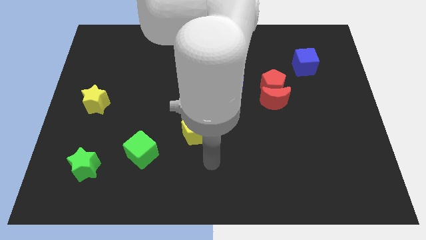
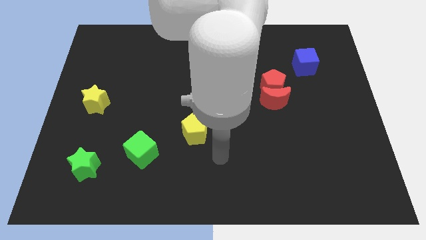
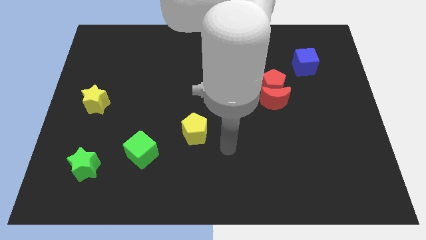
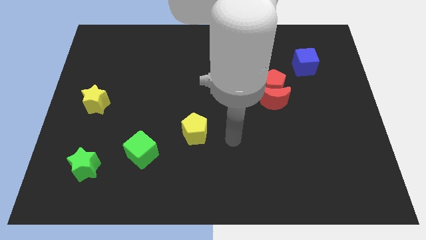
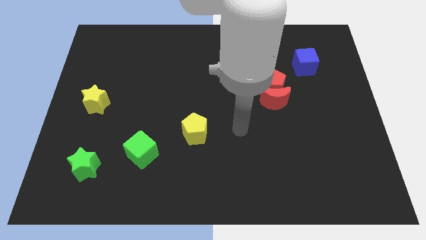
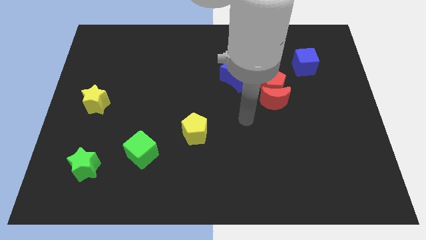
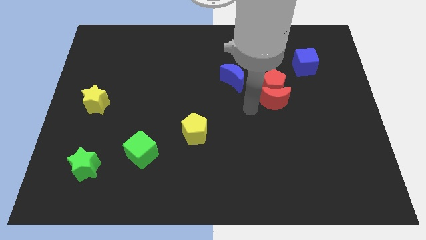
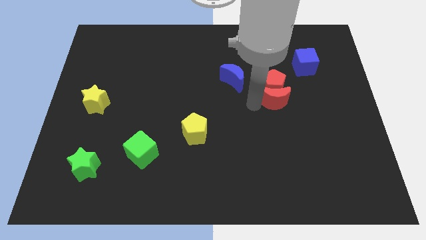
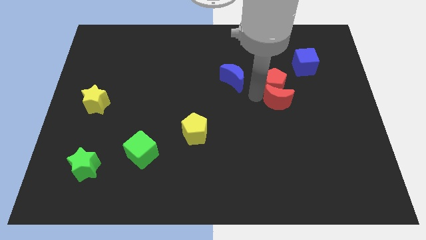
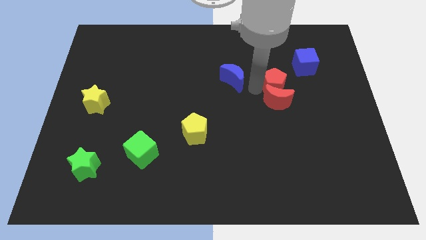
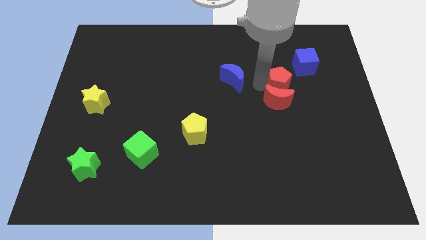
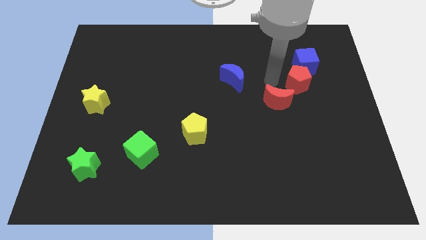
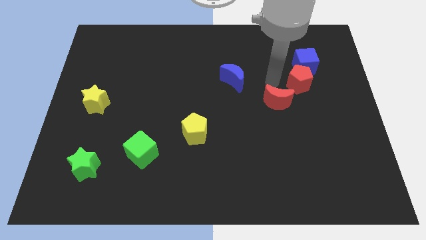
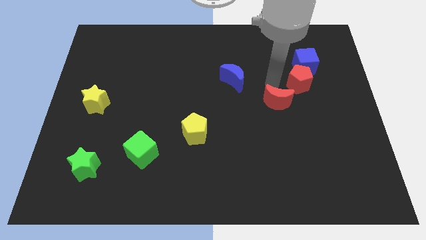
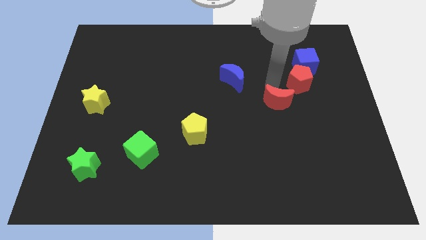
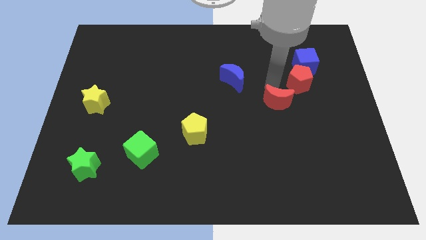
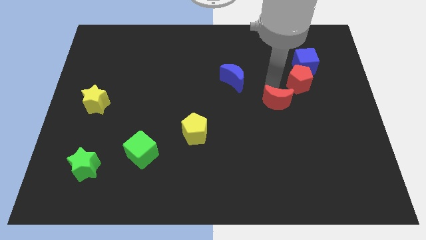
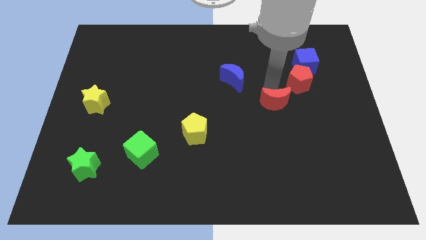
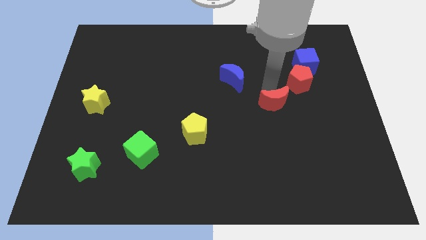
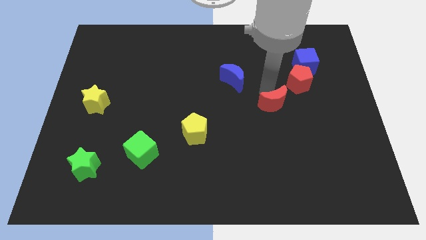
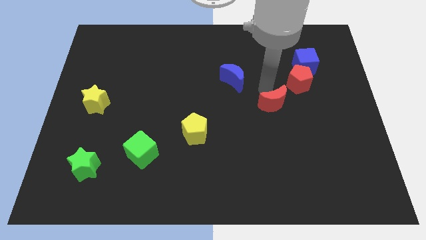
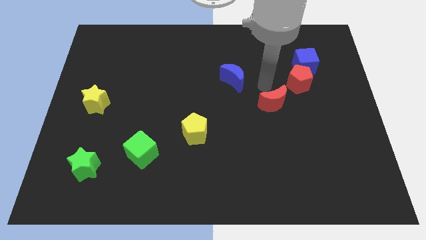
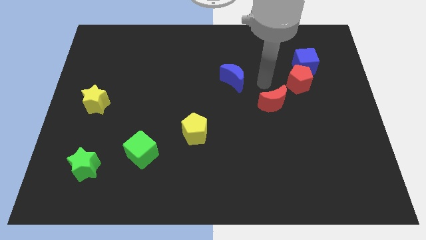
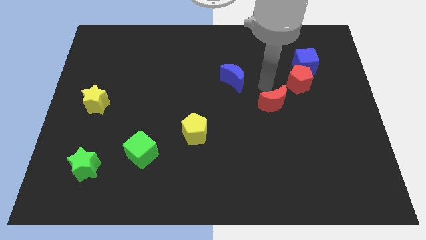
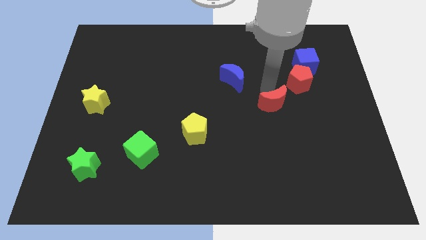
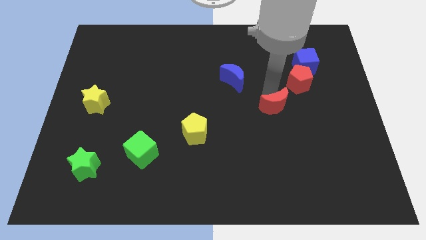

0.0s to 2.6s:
pull the red moon apart from the red pentagon

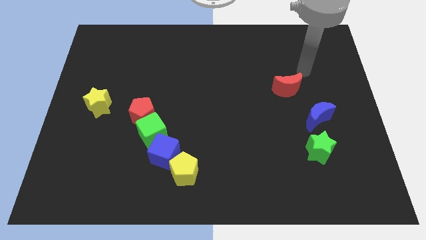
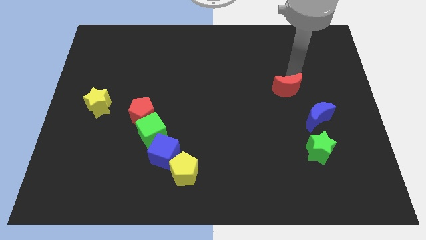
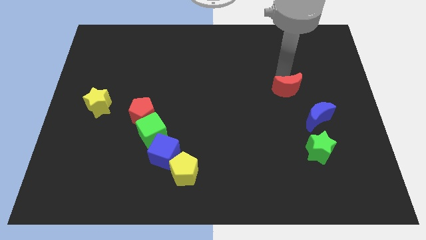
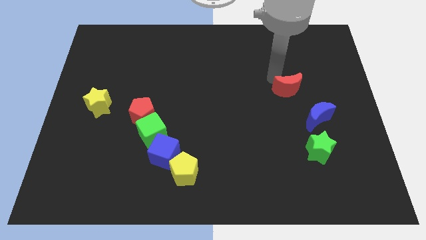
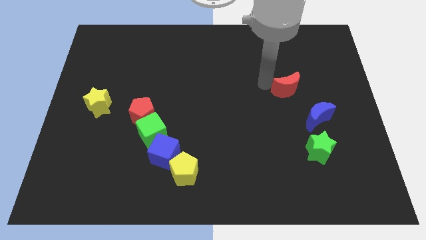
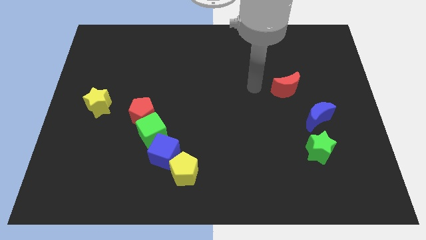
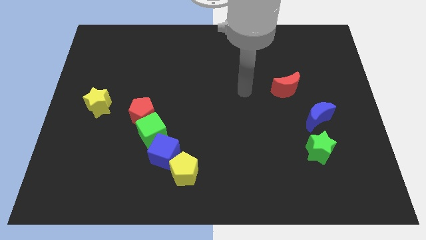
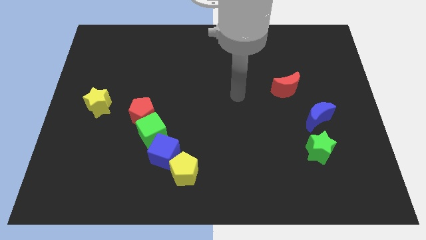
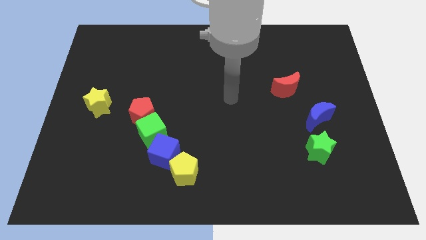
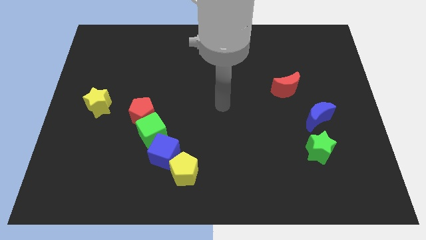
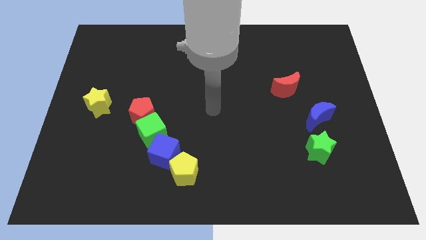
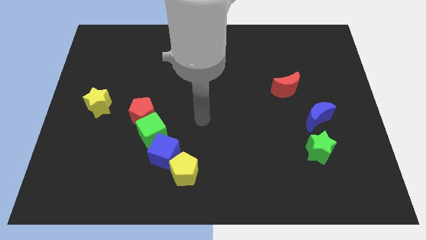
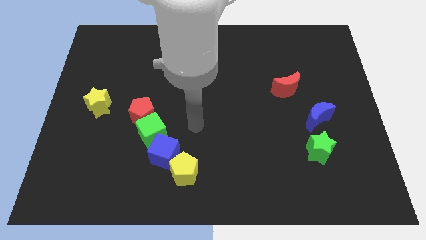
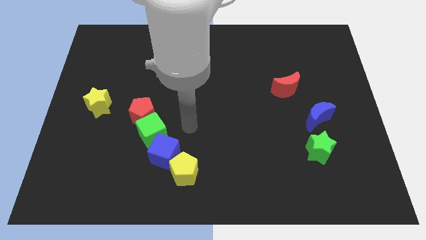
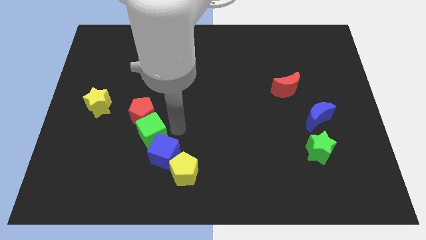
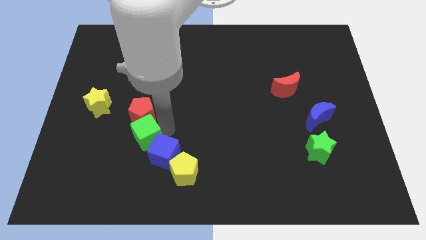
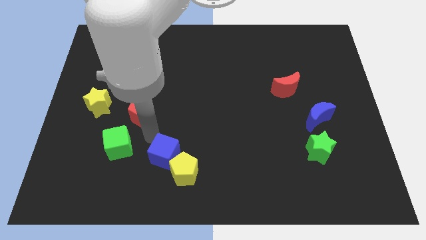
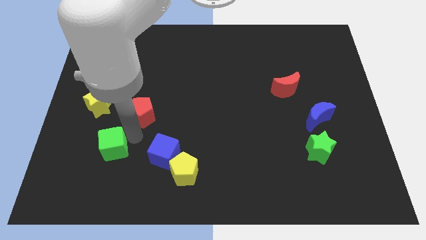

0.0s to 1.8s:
move the red pentagon away from the green cube

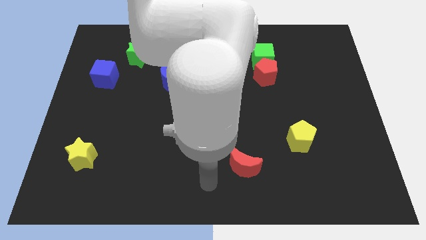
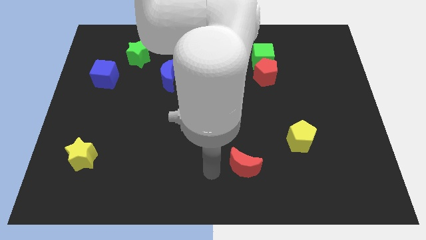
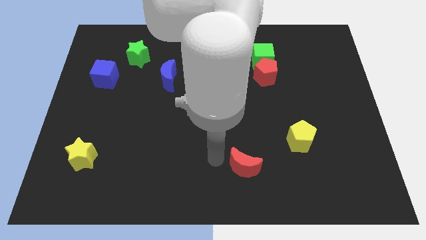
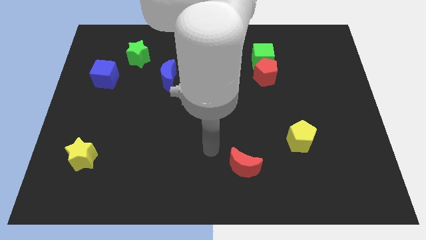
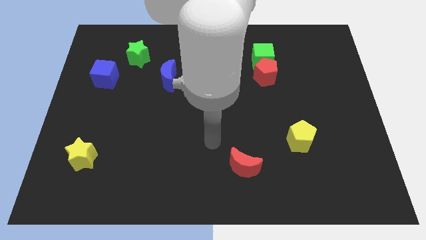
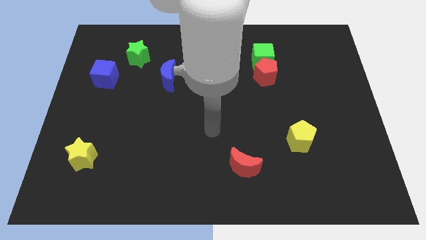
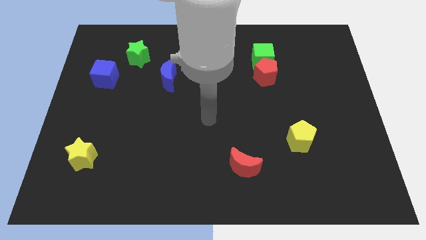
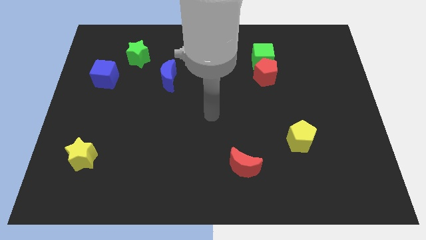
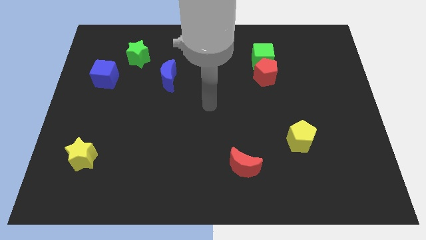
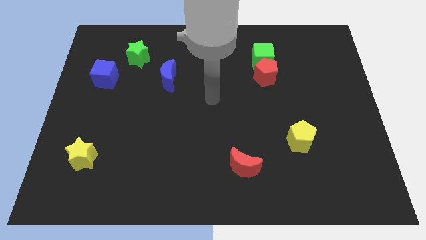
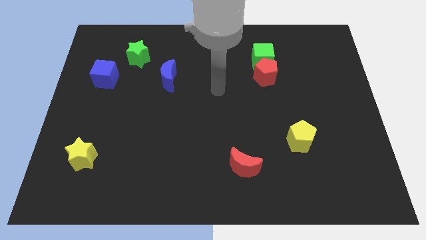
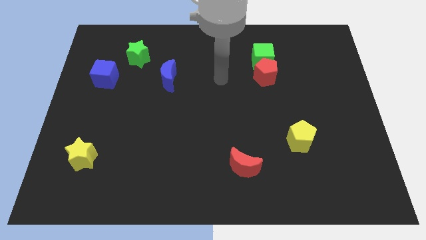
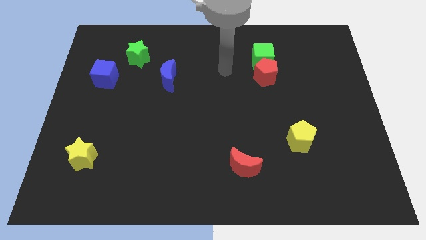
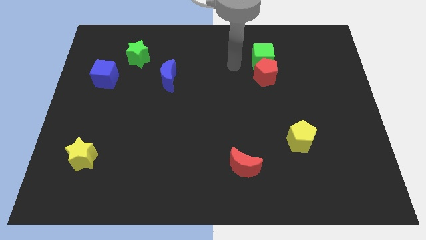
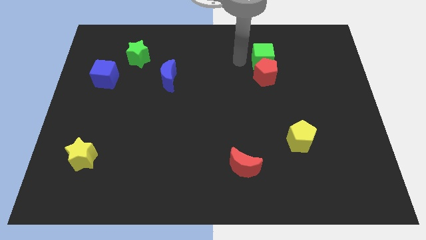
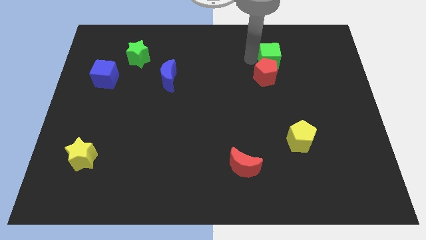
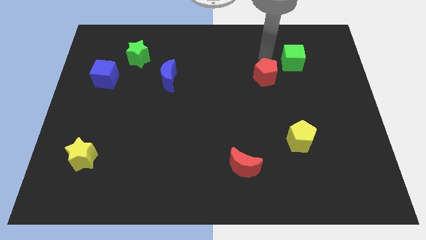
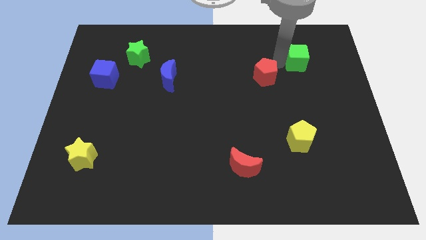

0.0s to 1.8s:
separate the red pentagon from the green cube

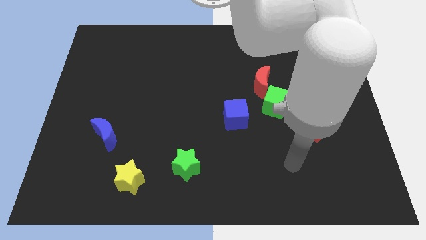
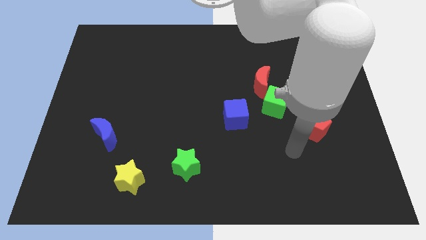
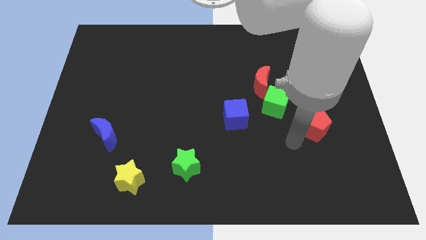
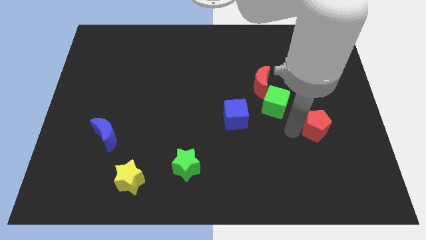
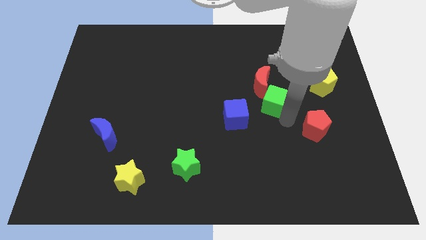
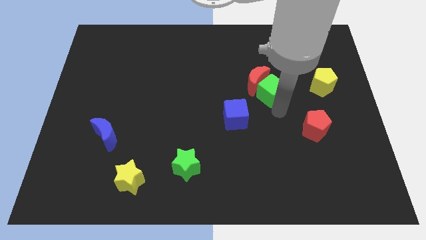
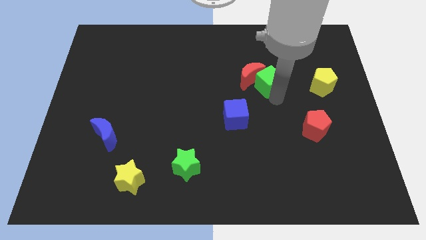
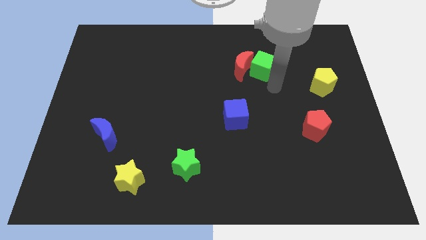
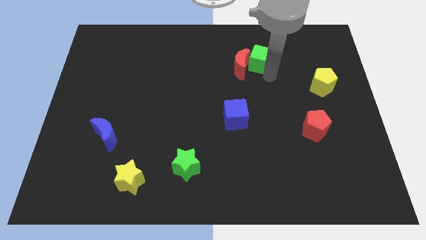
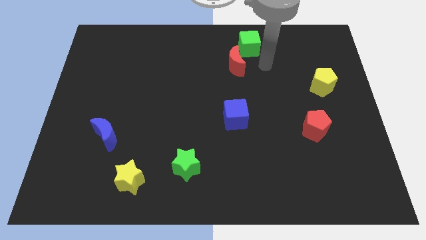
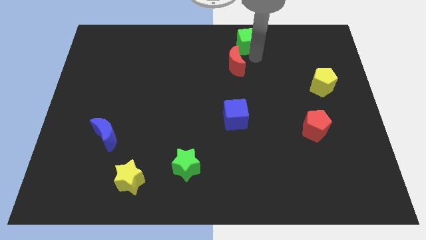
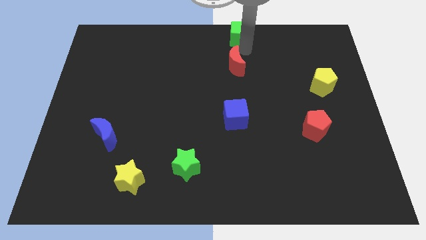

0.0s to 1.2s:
move the red moon away from the green cube

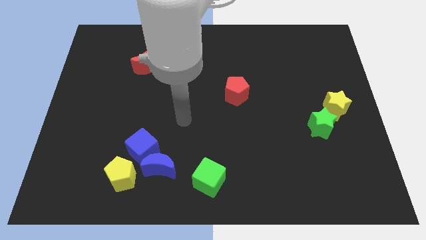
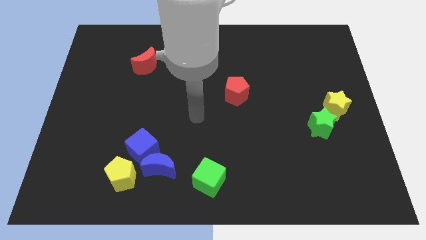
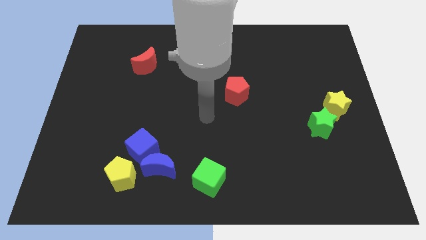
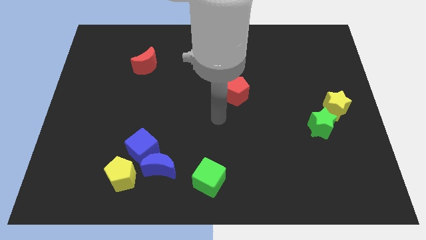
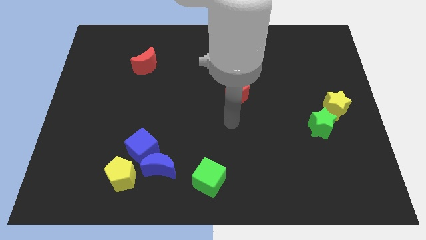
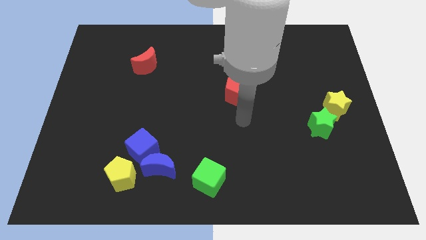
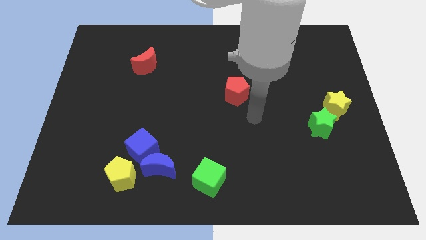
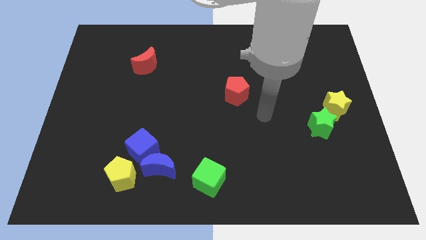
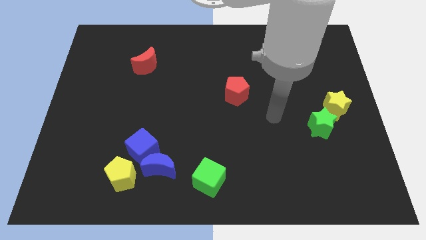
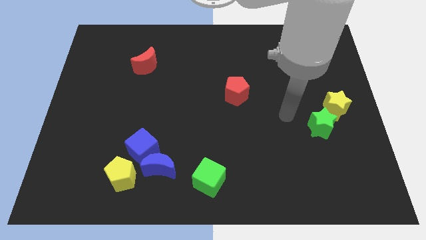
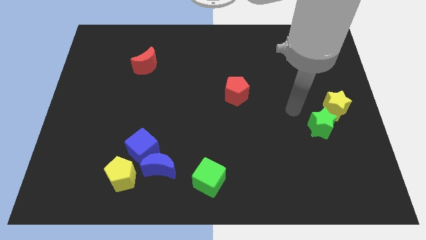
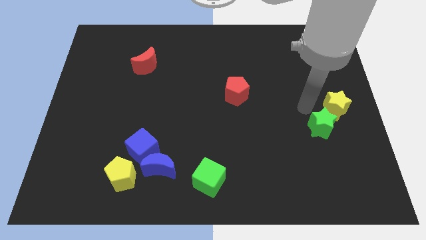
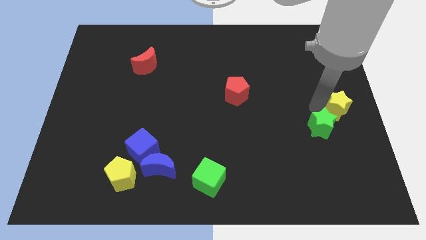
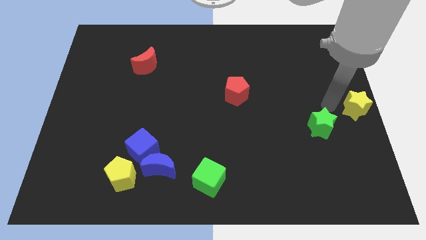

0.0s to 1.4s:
pull the green star apart from the yellow star

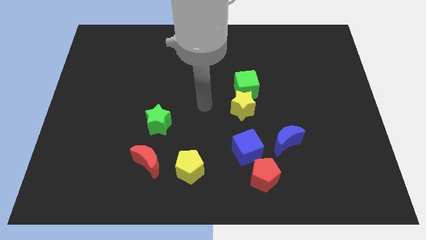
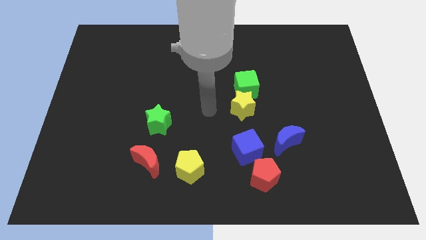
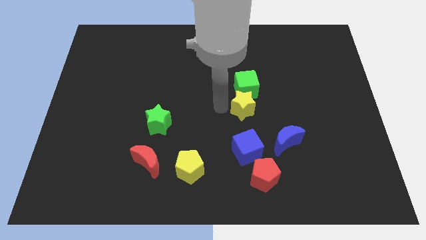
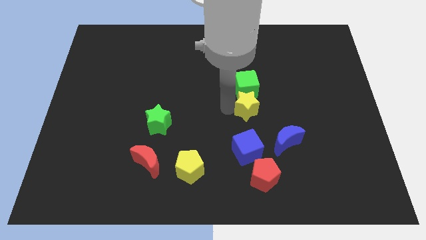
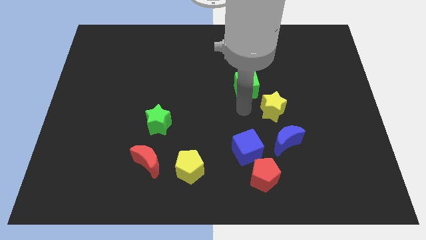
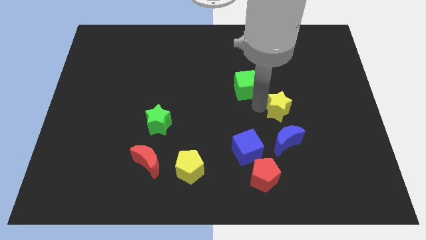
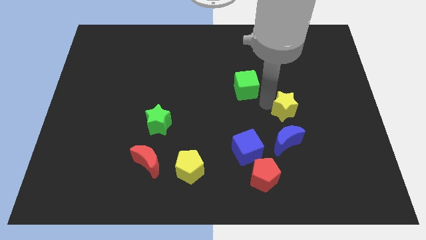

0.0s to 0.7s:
pull the green cube apart from the yellow star
